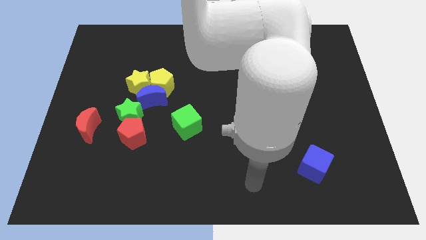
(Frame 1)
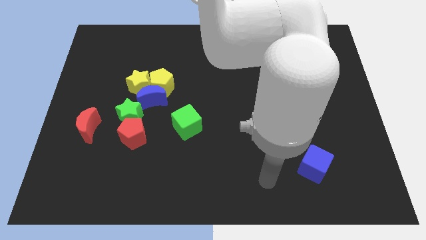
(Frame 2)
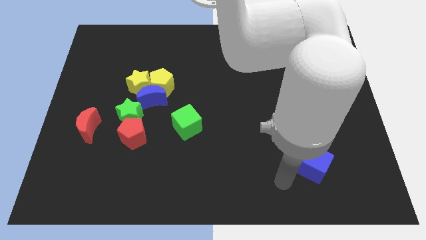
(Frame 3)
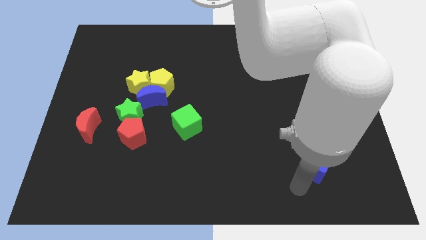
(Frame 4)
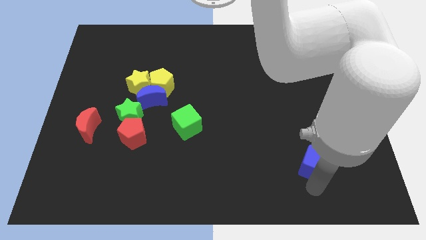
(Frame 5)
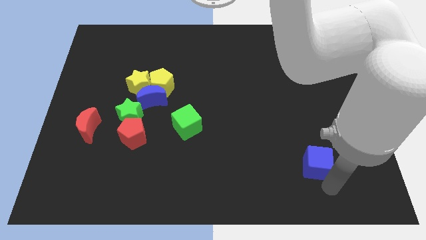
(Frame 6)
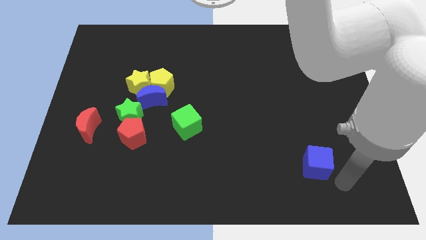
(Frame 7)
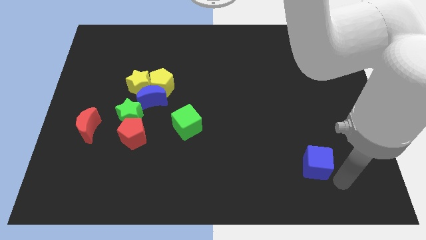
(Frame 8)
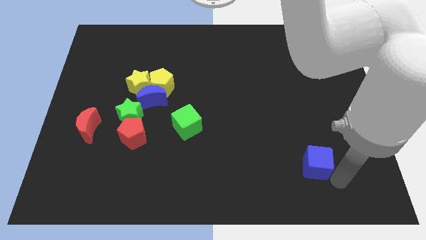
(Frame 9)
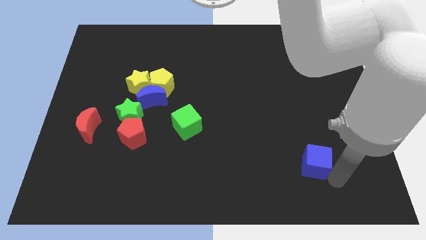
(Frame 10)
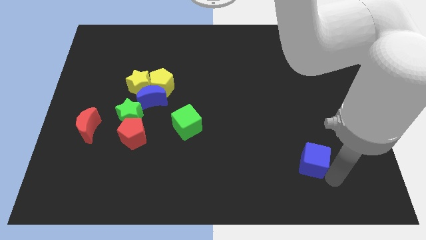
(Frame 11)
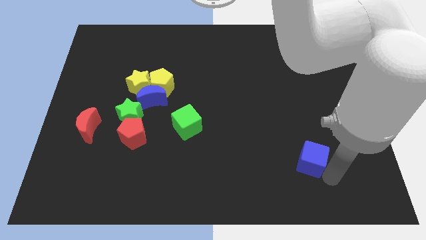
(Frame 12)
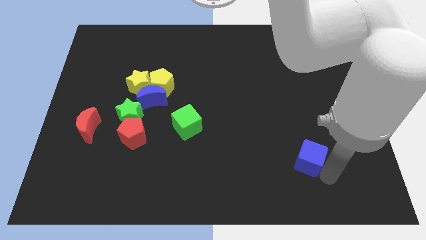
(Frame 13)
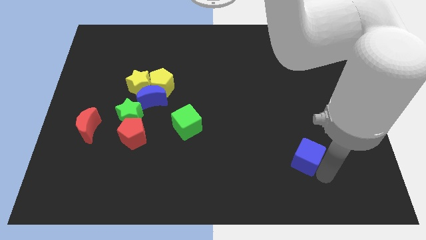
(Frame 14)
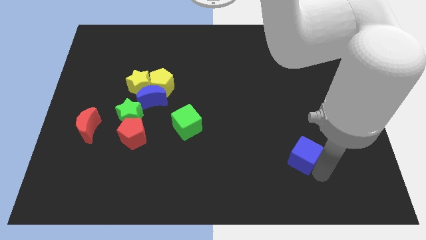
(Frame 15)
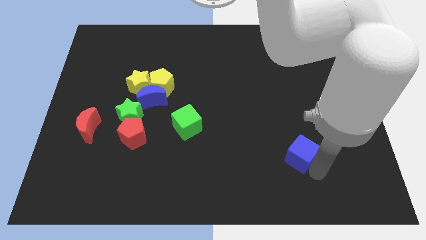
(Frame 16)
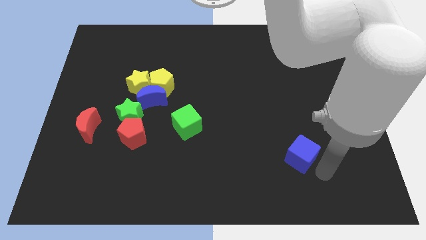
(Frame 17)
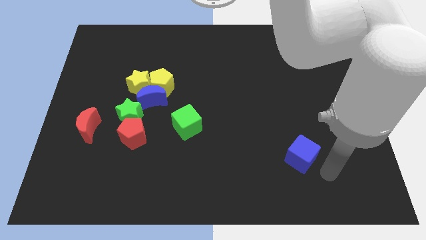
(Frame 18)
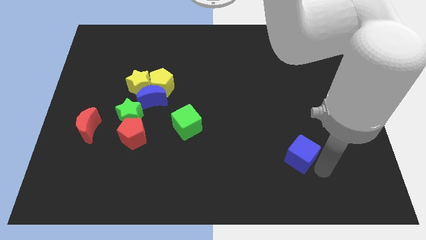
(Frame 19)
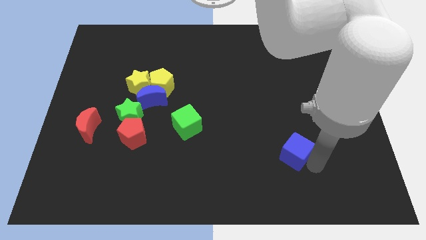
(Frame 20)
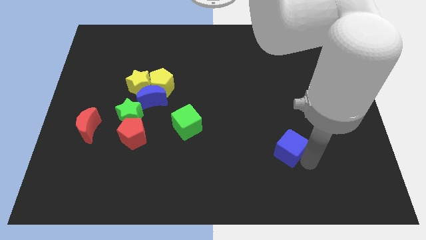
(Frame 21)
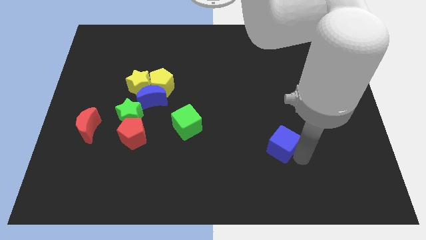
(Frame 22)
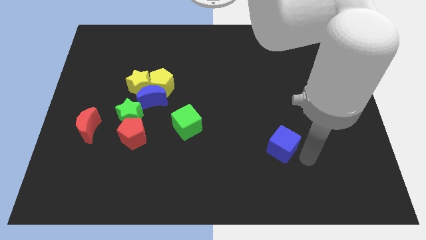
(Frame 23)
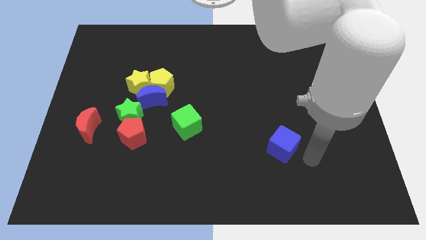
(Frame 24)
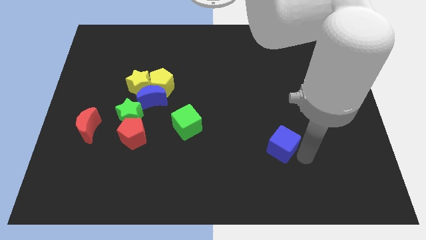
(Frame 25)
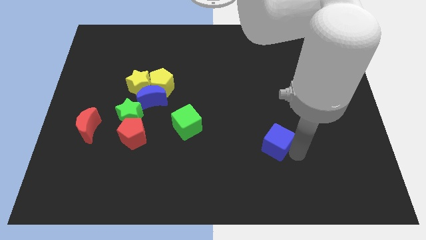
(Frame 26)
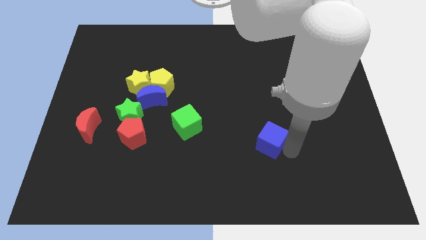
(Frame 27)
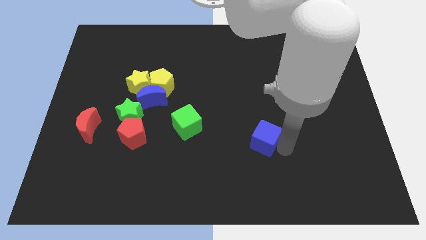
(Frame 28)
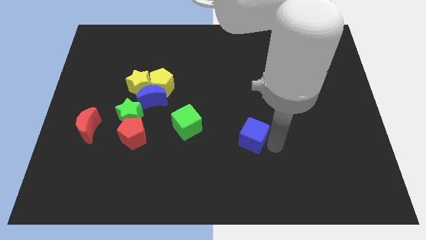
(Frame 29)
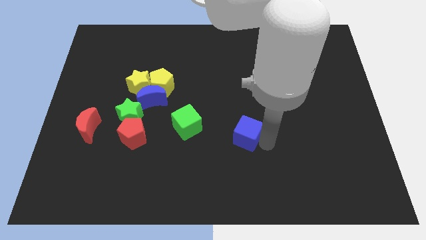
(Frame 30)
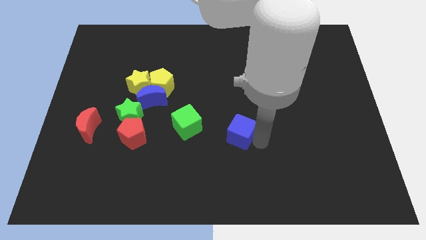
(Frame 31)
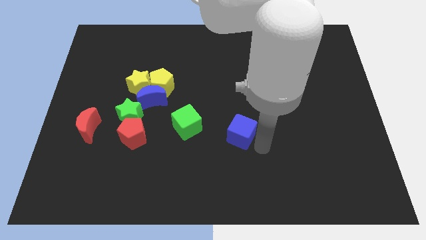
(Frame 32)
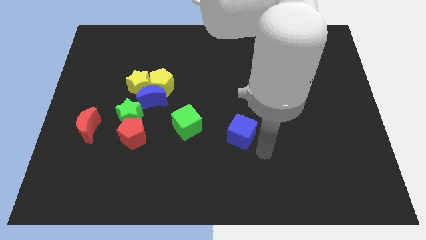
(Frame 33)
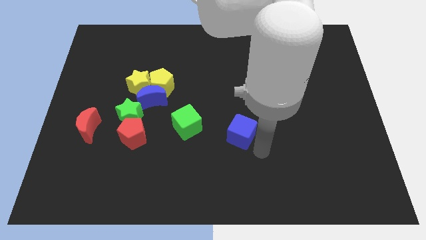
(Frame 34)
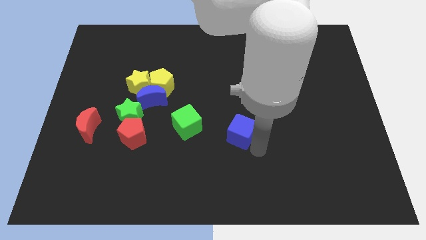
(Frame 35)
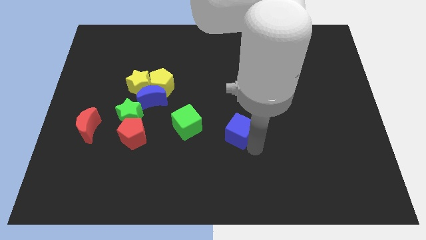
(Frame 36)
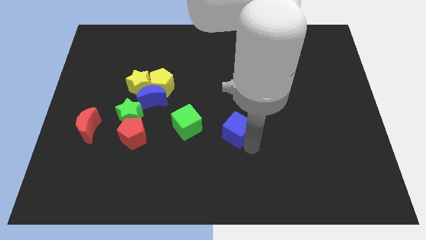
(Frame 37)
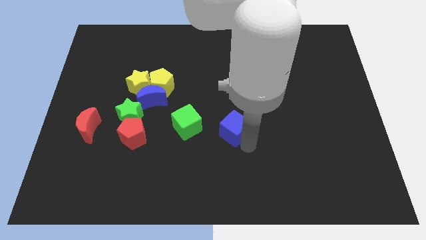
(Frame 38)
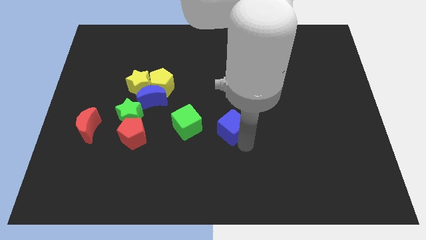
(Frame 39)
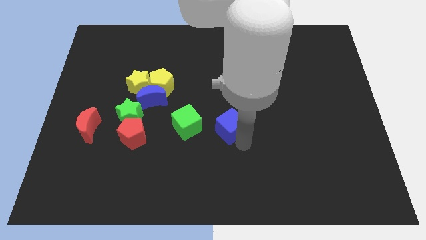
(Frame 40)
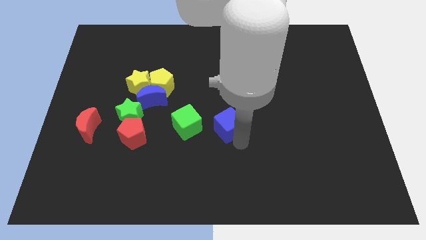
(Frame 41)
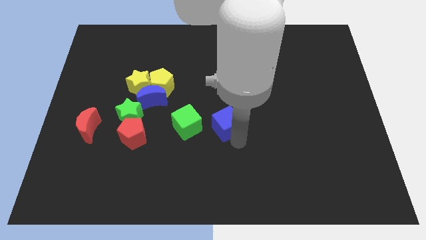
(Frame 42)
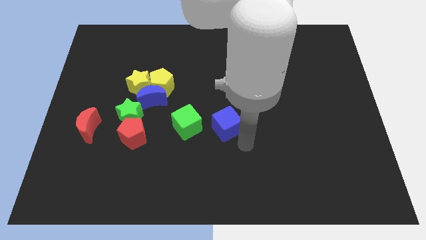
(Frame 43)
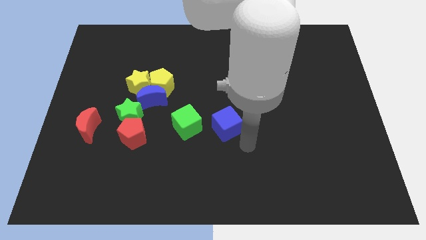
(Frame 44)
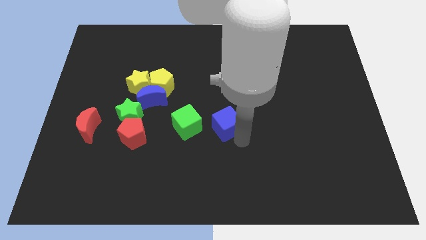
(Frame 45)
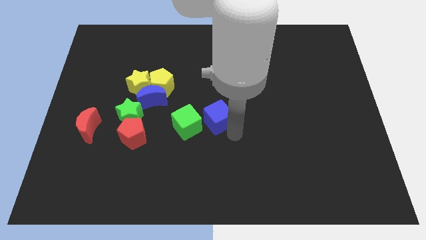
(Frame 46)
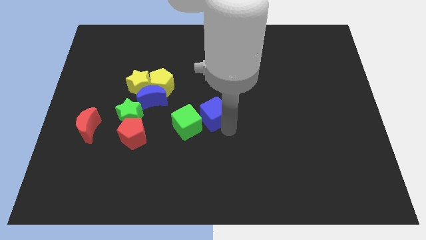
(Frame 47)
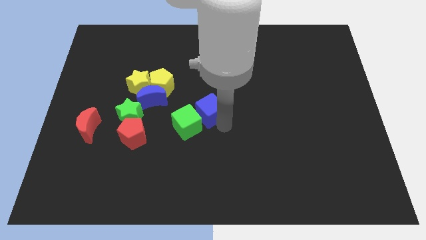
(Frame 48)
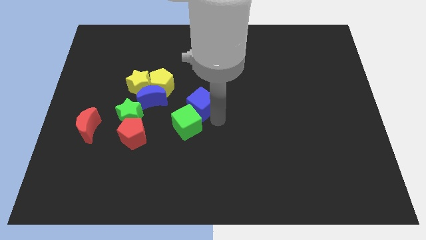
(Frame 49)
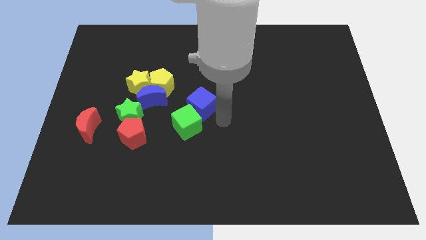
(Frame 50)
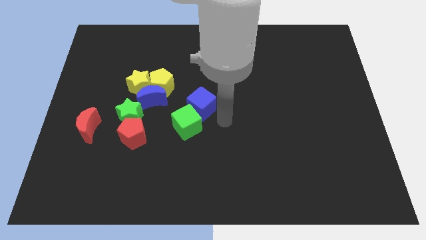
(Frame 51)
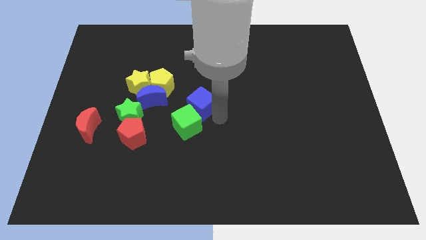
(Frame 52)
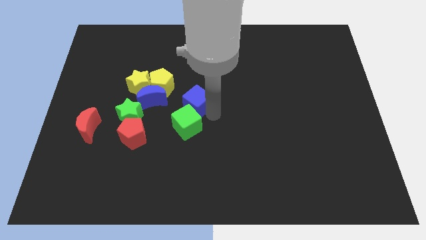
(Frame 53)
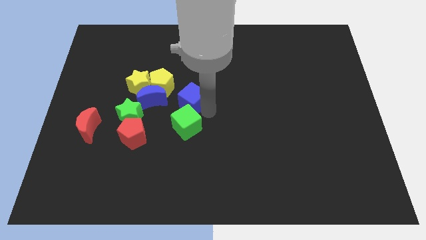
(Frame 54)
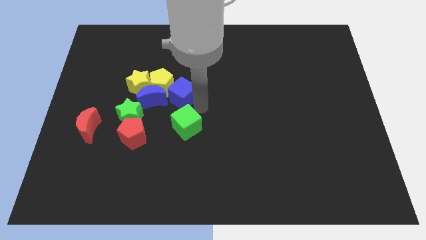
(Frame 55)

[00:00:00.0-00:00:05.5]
move the blue cube close to the yellow pentagon

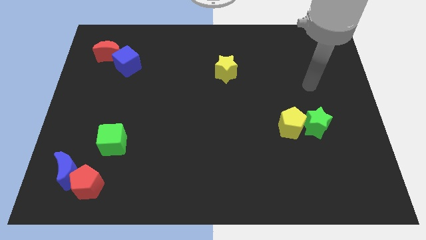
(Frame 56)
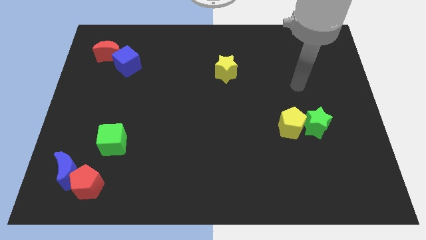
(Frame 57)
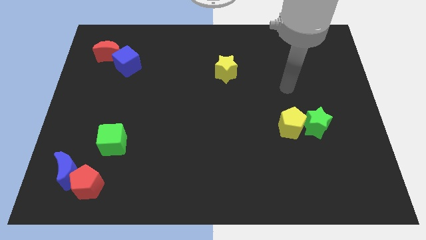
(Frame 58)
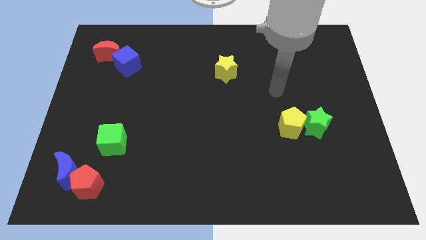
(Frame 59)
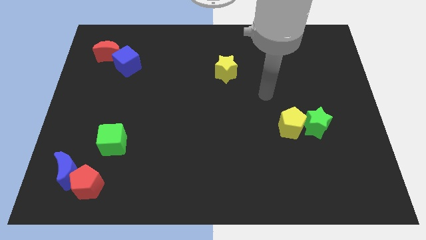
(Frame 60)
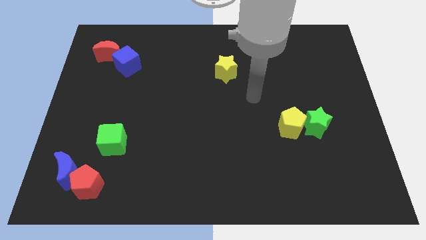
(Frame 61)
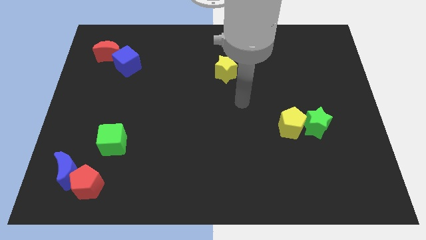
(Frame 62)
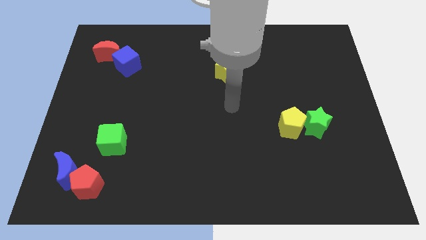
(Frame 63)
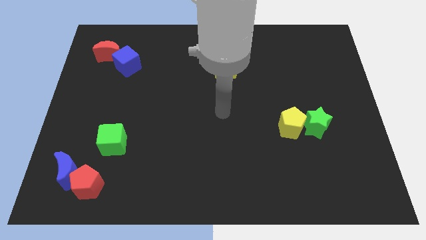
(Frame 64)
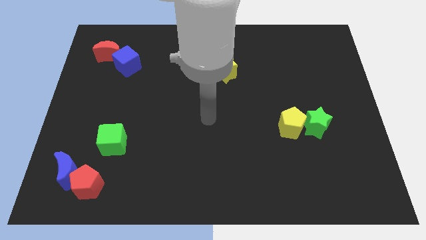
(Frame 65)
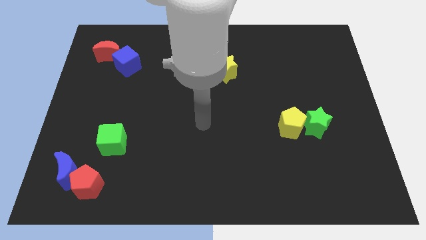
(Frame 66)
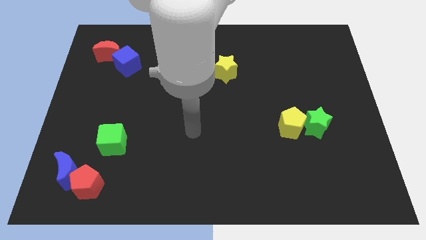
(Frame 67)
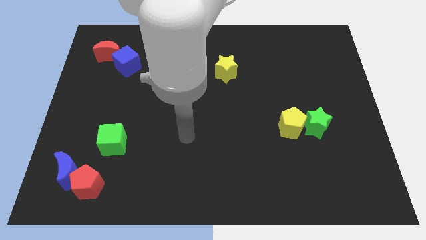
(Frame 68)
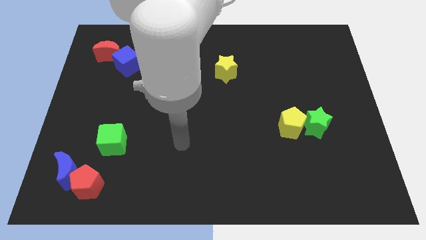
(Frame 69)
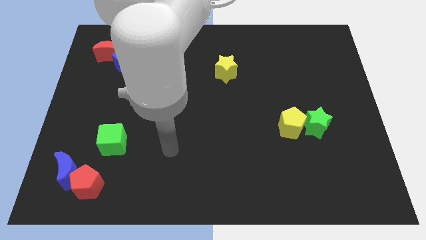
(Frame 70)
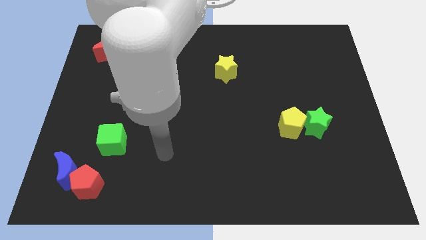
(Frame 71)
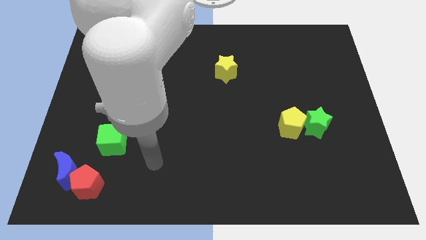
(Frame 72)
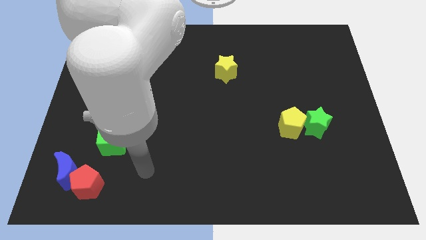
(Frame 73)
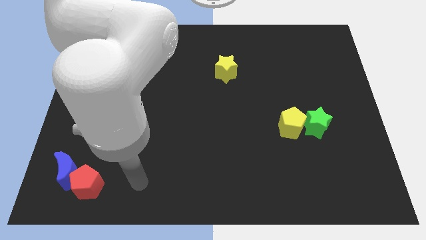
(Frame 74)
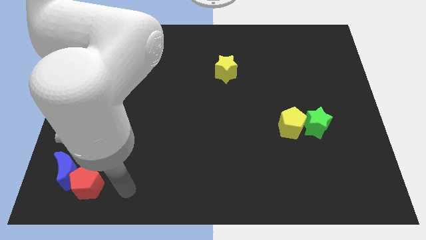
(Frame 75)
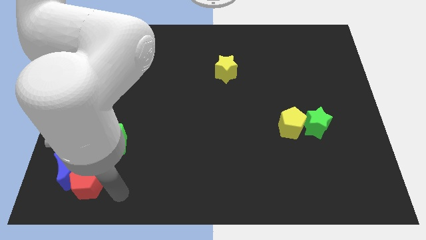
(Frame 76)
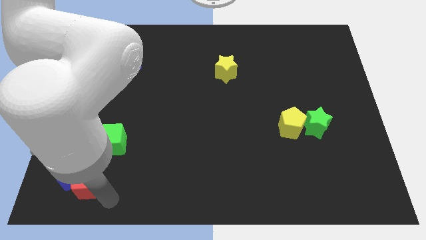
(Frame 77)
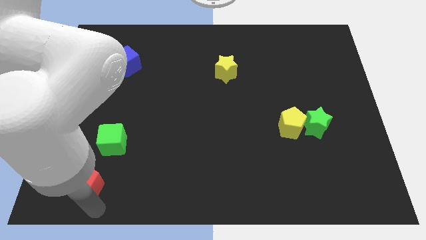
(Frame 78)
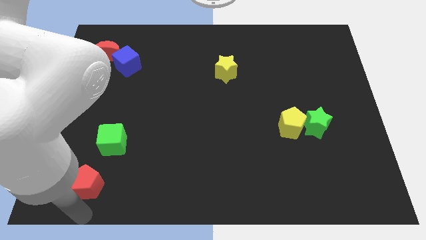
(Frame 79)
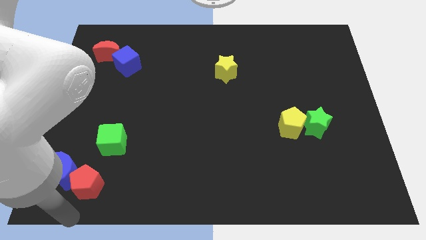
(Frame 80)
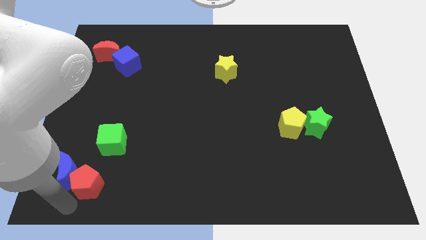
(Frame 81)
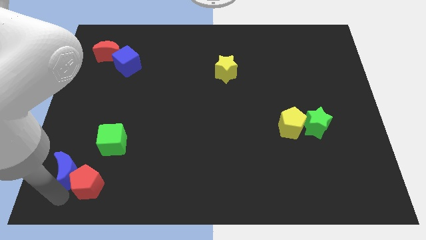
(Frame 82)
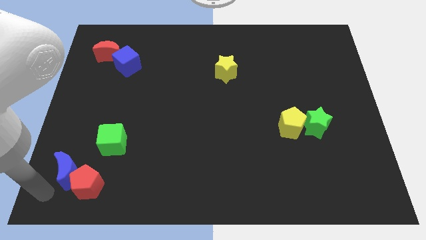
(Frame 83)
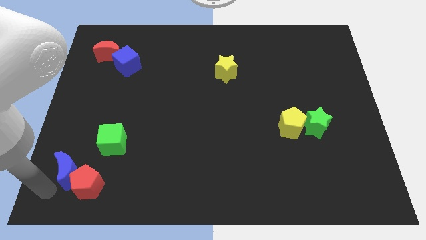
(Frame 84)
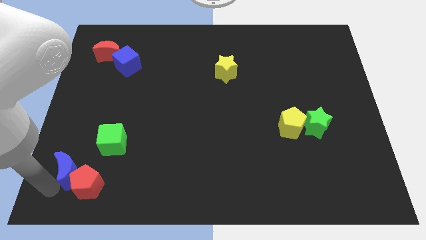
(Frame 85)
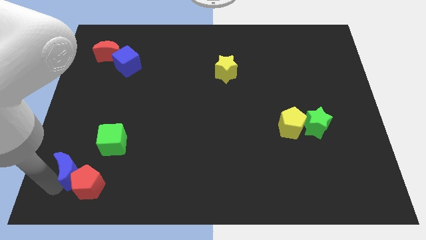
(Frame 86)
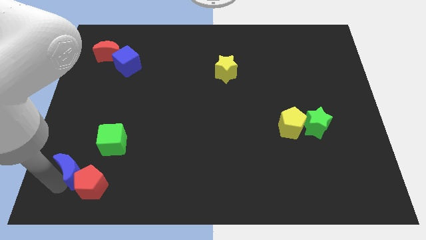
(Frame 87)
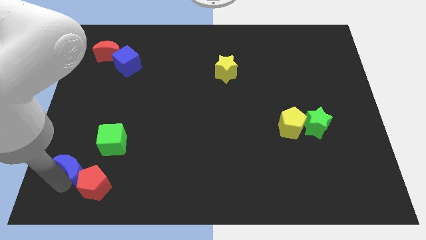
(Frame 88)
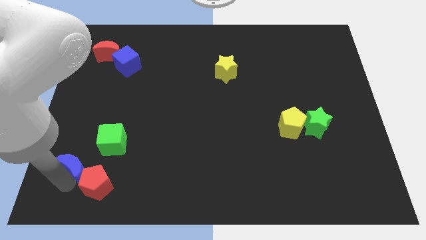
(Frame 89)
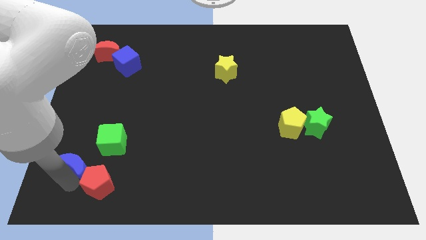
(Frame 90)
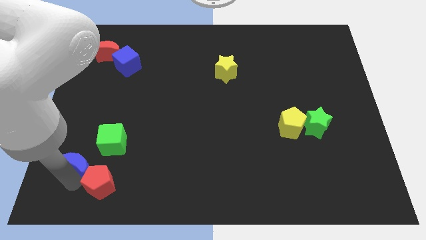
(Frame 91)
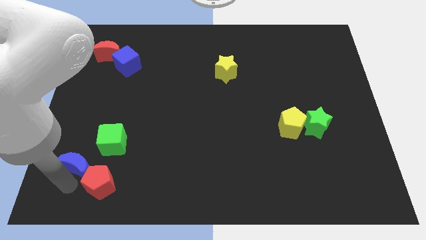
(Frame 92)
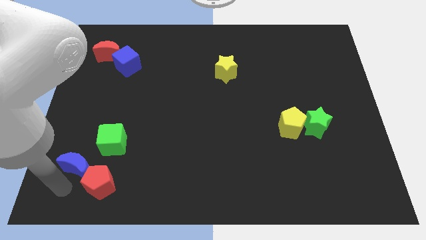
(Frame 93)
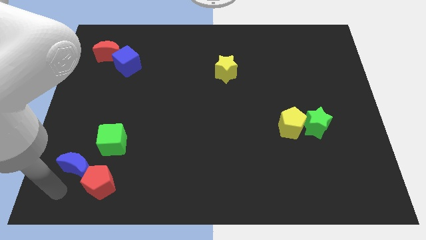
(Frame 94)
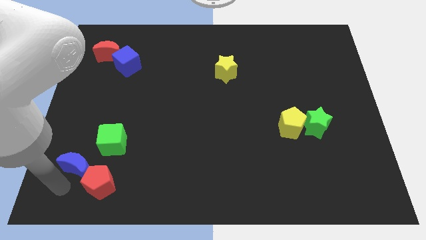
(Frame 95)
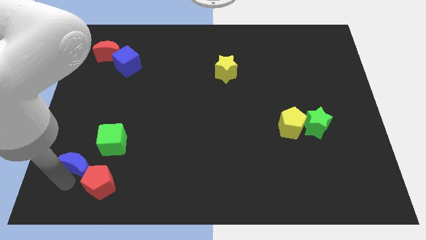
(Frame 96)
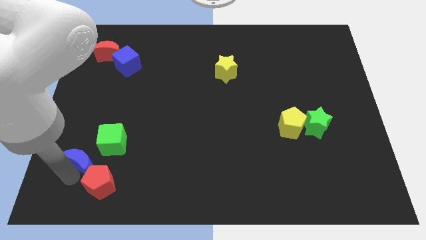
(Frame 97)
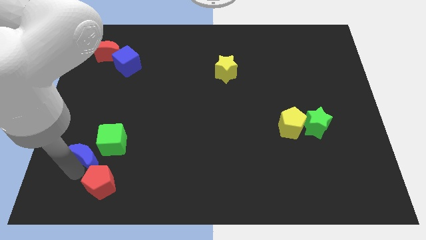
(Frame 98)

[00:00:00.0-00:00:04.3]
slide the blue moon to the green cube
